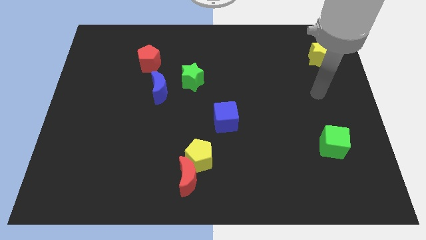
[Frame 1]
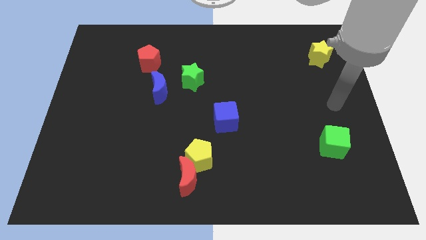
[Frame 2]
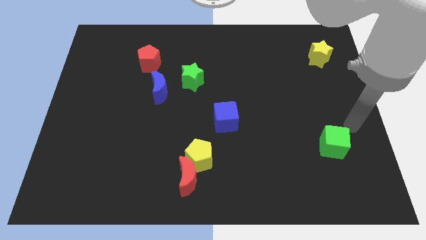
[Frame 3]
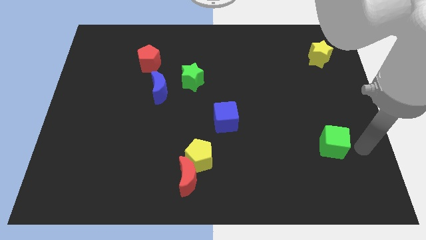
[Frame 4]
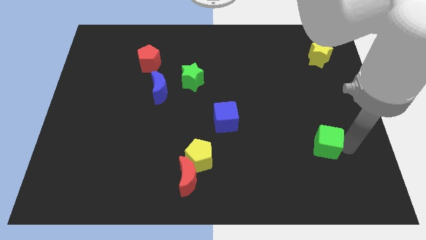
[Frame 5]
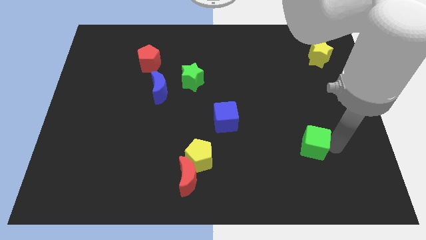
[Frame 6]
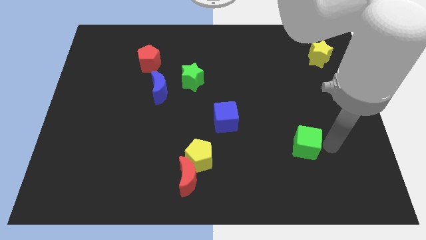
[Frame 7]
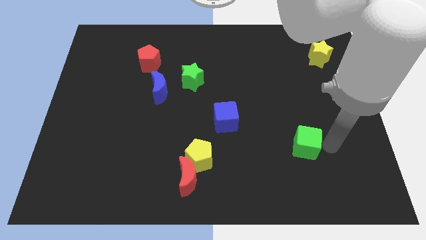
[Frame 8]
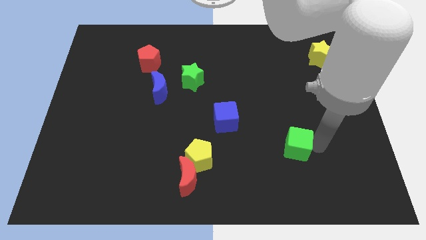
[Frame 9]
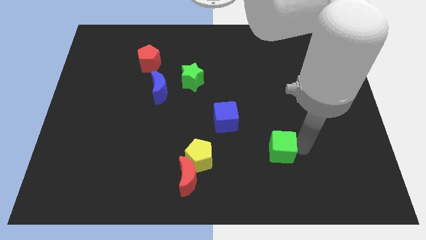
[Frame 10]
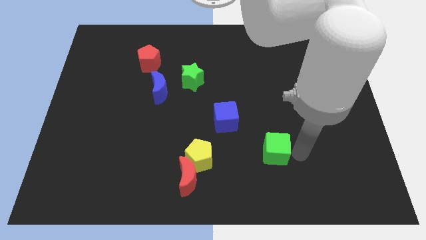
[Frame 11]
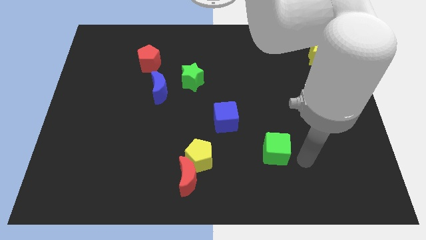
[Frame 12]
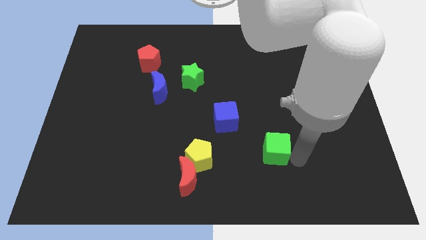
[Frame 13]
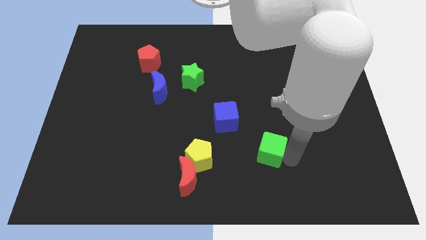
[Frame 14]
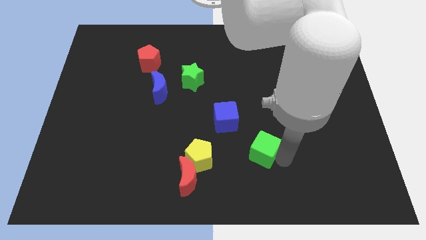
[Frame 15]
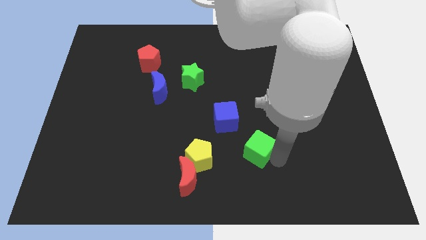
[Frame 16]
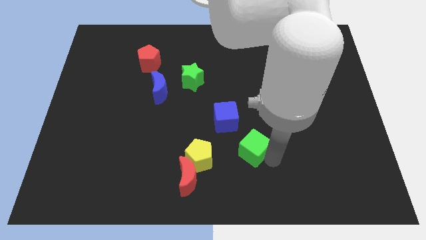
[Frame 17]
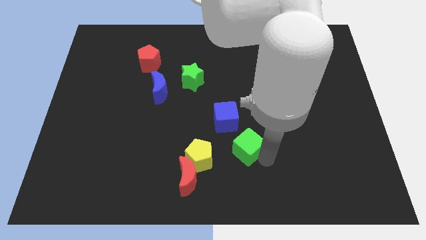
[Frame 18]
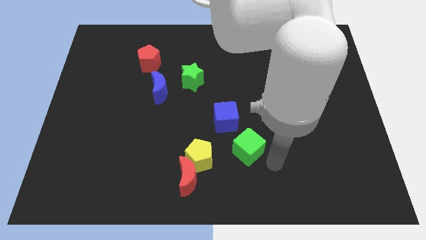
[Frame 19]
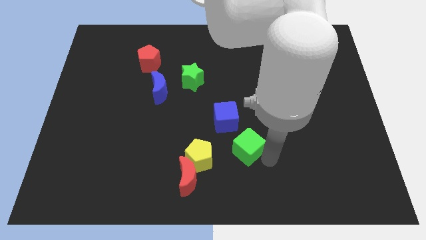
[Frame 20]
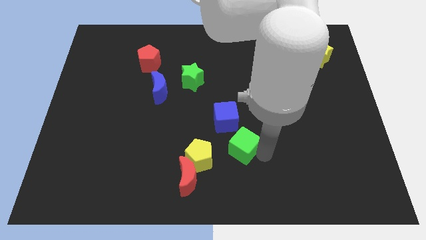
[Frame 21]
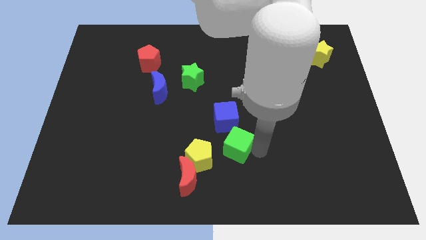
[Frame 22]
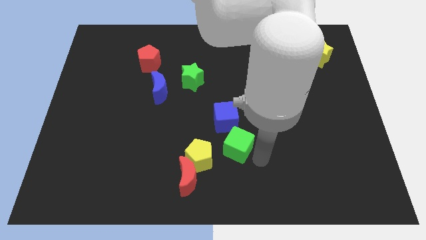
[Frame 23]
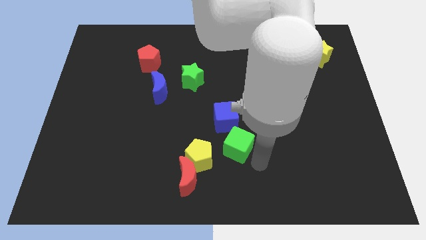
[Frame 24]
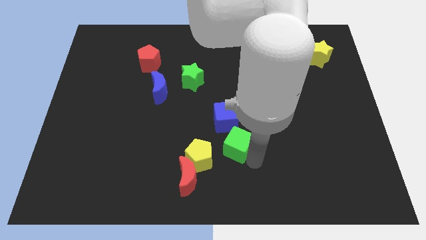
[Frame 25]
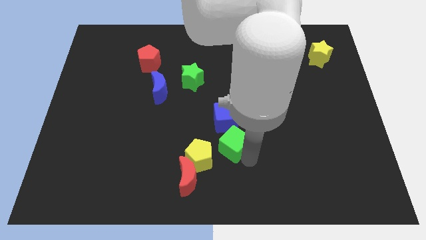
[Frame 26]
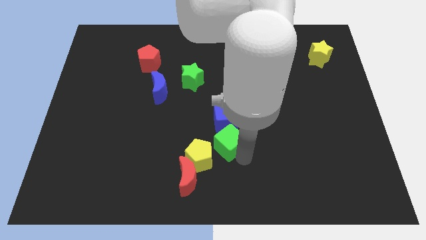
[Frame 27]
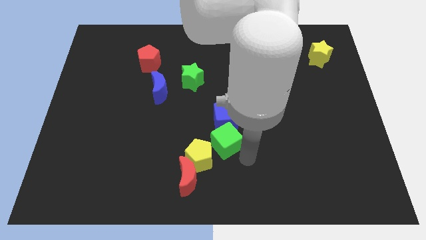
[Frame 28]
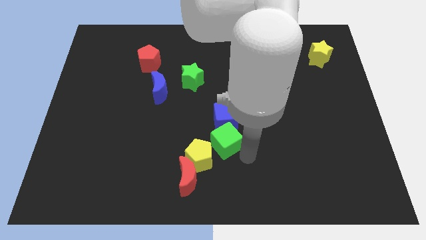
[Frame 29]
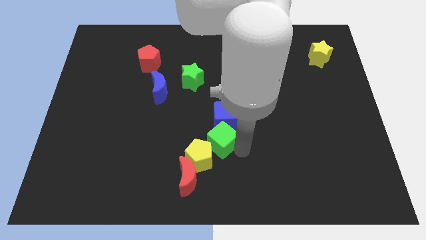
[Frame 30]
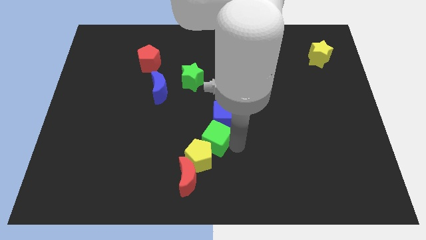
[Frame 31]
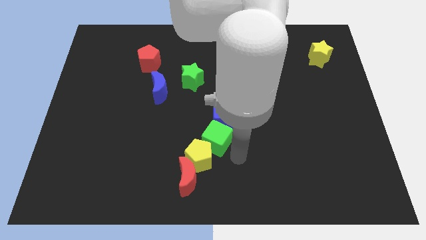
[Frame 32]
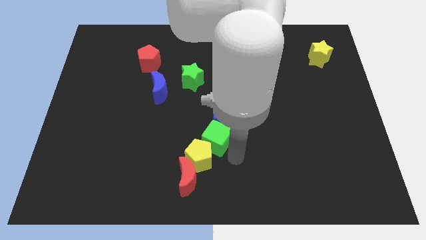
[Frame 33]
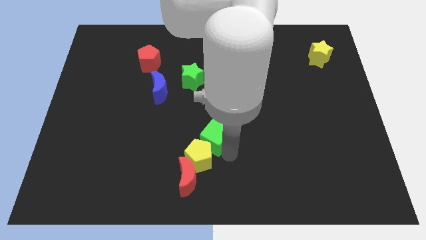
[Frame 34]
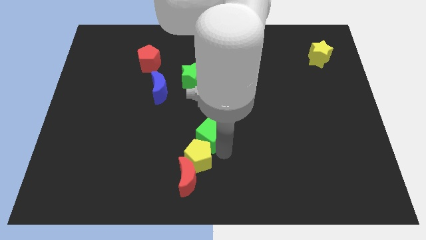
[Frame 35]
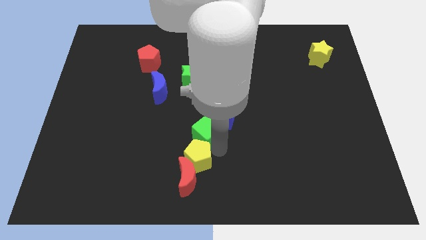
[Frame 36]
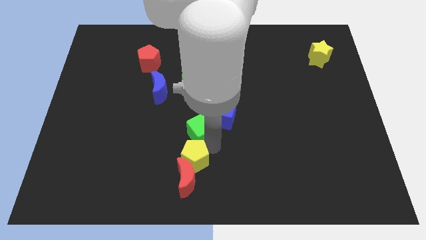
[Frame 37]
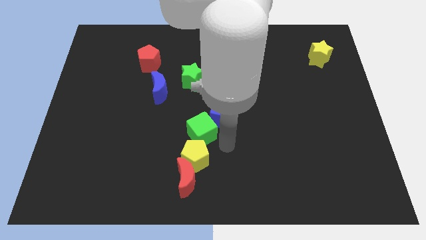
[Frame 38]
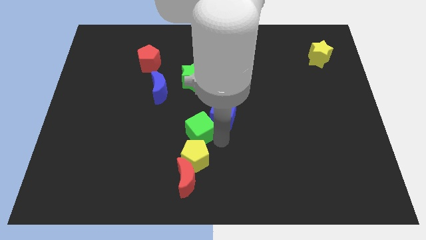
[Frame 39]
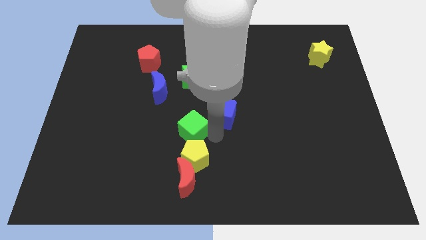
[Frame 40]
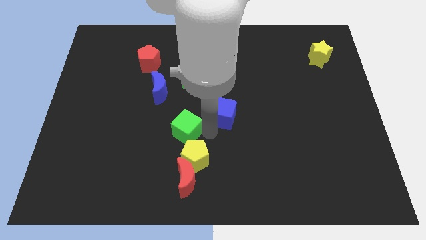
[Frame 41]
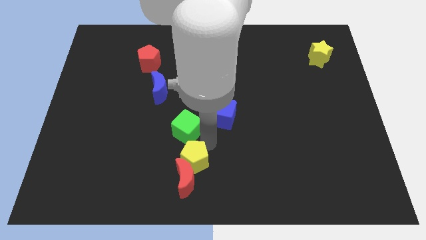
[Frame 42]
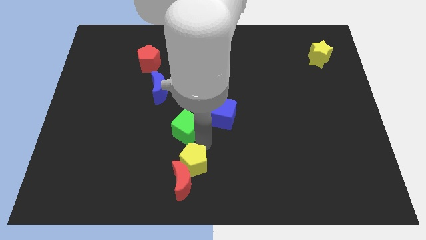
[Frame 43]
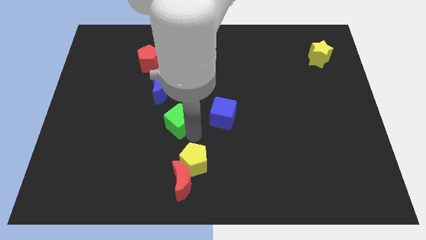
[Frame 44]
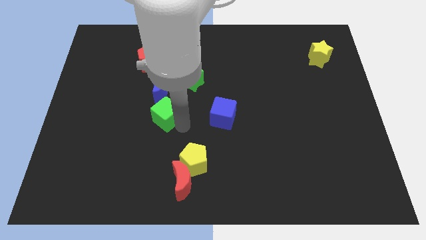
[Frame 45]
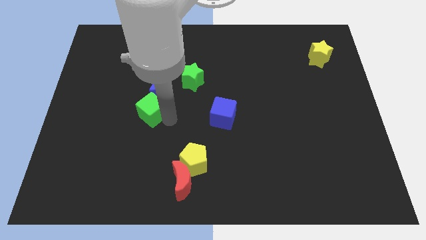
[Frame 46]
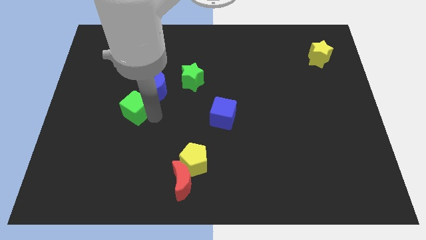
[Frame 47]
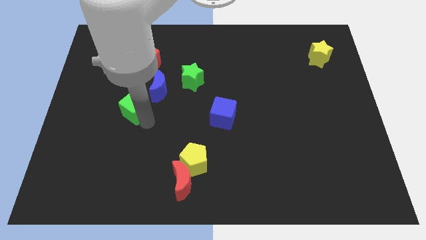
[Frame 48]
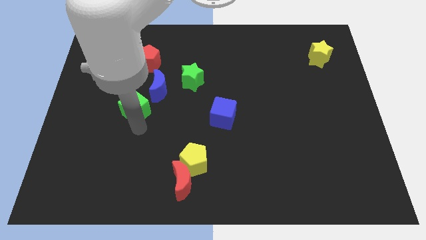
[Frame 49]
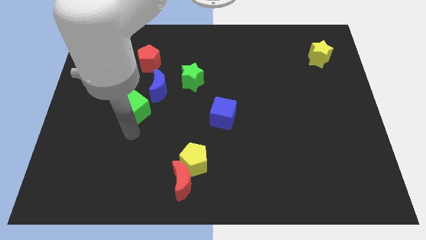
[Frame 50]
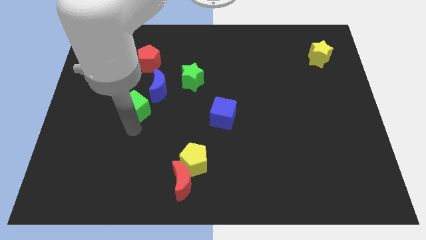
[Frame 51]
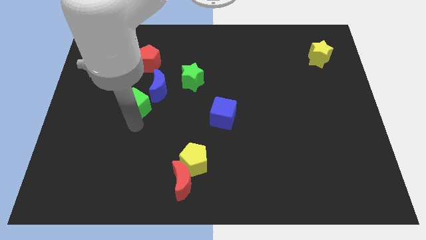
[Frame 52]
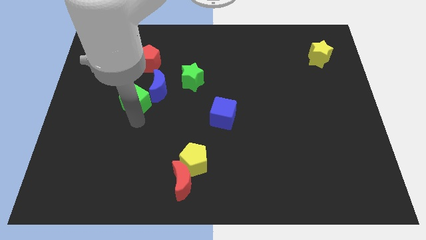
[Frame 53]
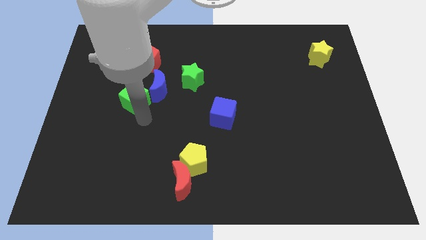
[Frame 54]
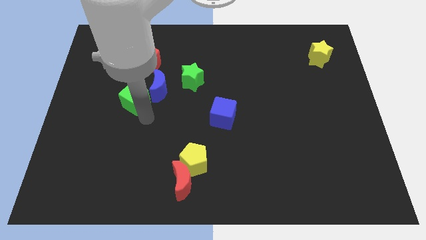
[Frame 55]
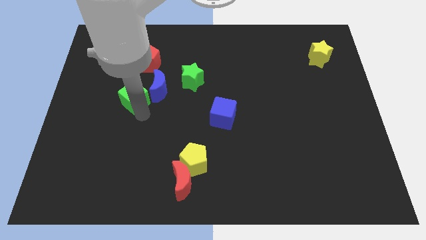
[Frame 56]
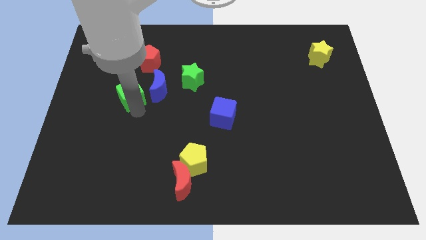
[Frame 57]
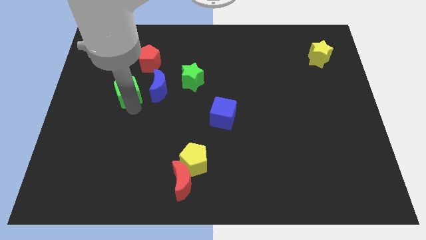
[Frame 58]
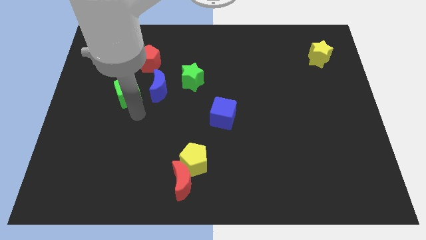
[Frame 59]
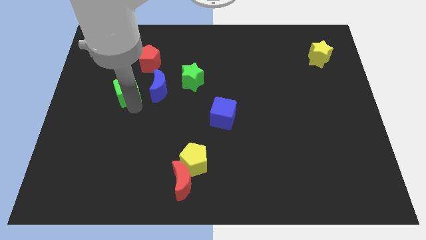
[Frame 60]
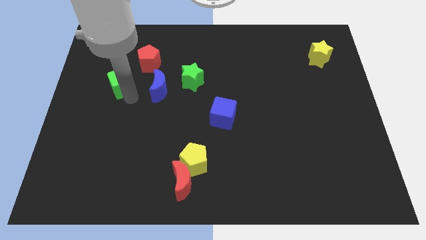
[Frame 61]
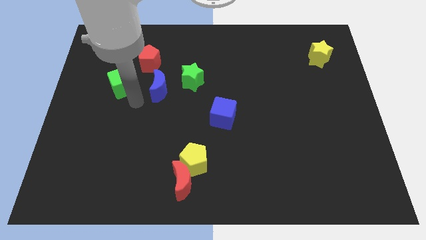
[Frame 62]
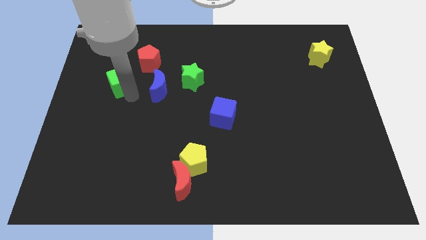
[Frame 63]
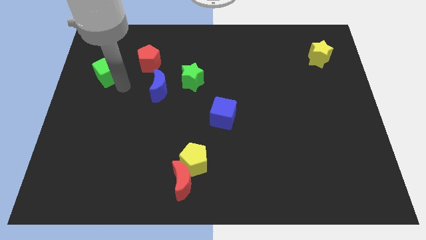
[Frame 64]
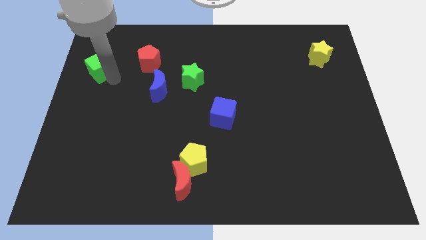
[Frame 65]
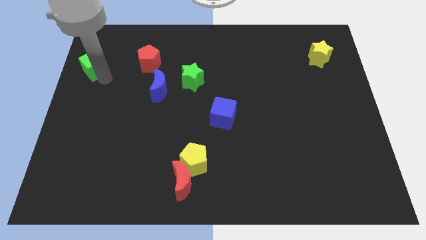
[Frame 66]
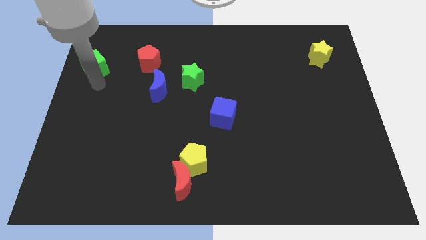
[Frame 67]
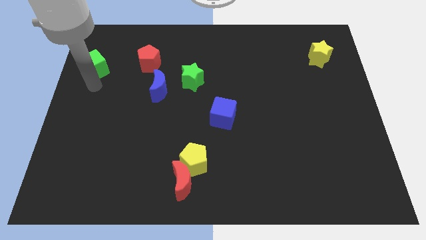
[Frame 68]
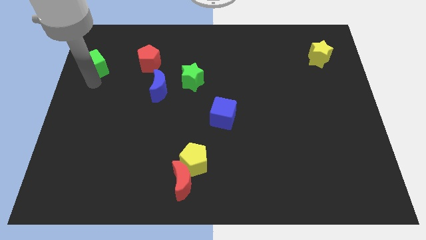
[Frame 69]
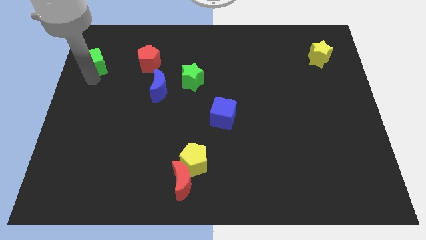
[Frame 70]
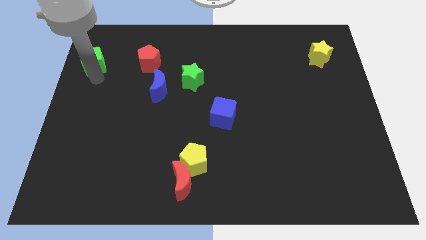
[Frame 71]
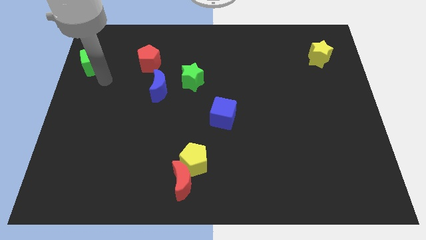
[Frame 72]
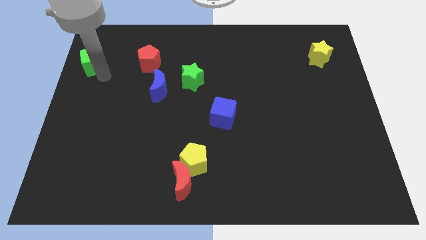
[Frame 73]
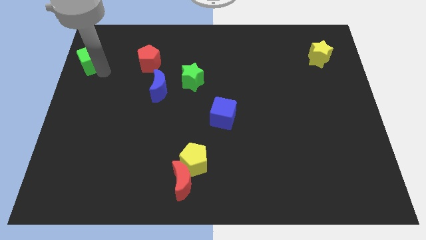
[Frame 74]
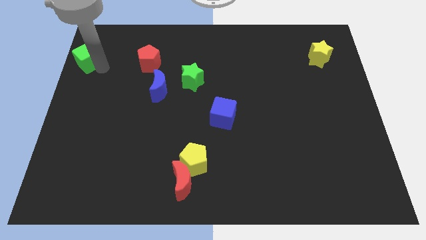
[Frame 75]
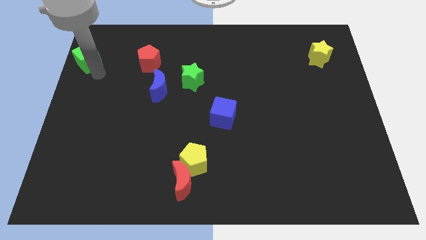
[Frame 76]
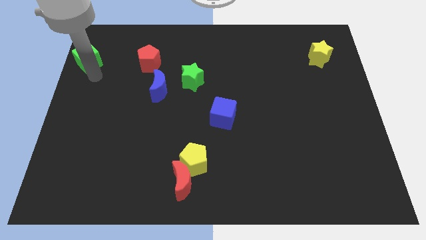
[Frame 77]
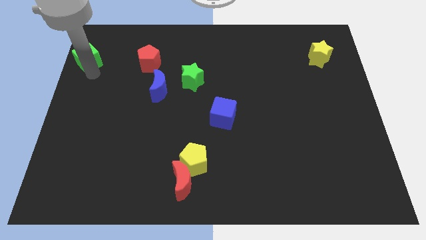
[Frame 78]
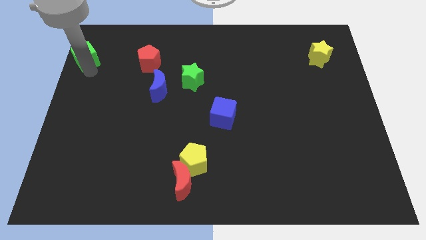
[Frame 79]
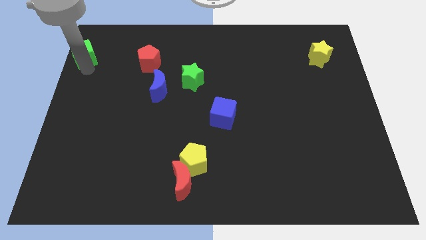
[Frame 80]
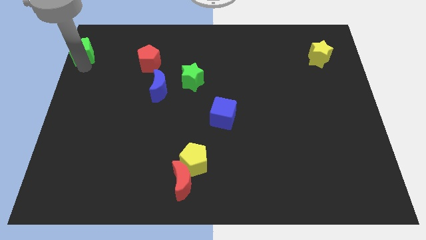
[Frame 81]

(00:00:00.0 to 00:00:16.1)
put the green cube to the upper left corner
